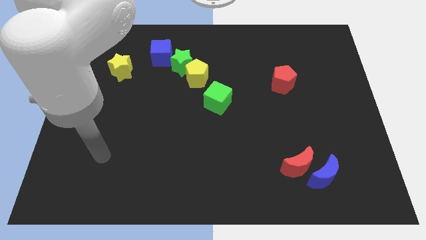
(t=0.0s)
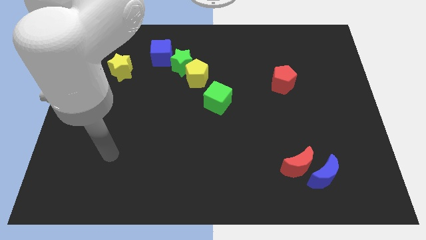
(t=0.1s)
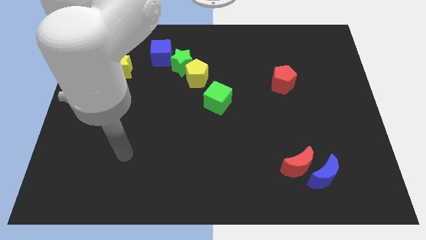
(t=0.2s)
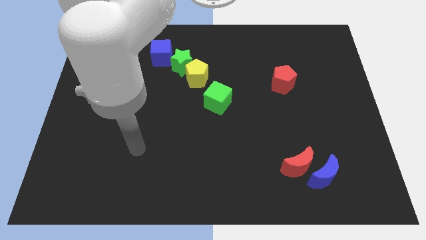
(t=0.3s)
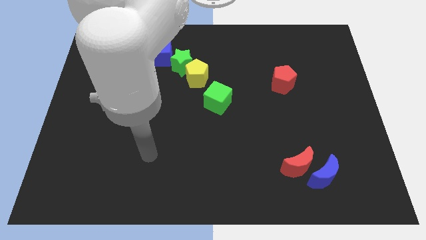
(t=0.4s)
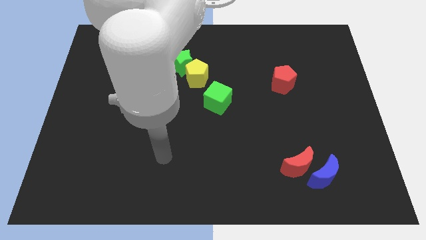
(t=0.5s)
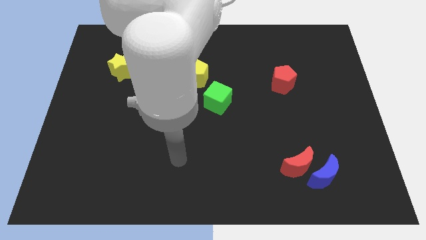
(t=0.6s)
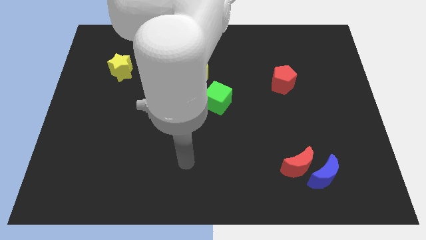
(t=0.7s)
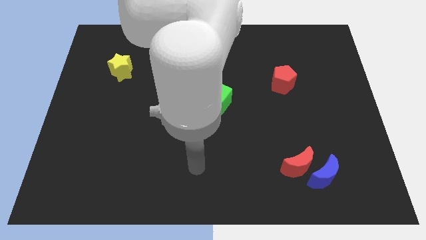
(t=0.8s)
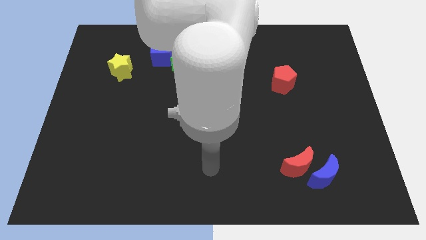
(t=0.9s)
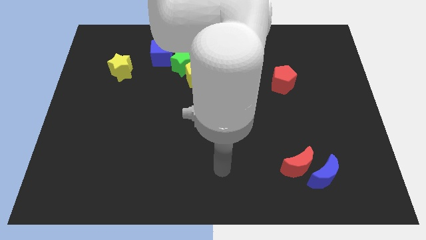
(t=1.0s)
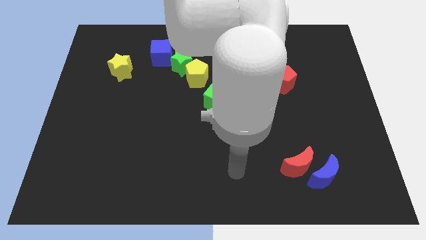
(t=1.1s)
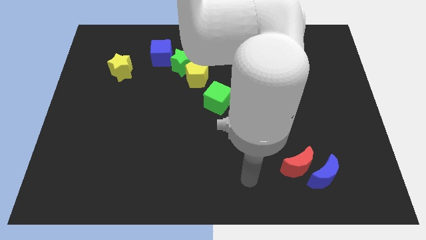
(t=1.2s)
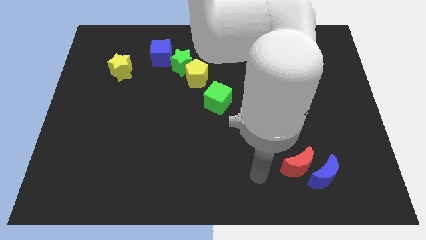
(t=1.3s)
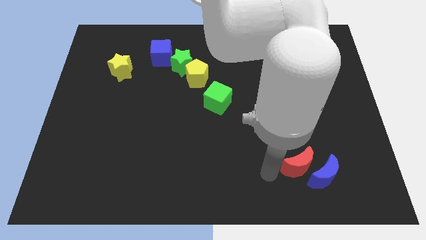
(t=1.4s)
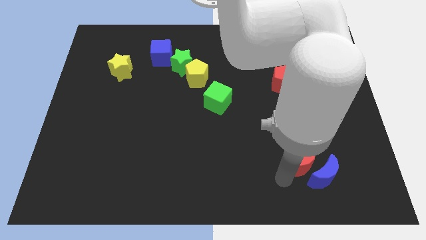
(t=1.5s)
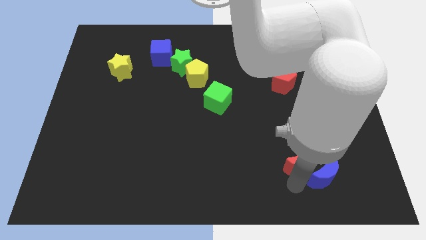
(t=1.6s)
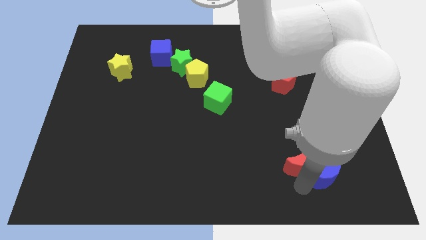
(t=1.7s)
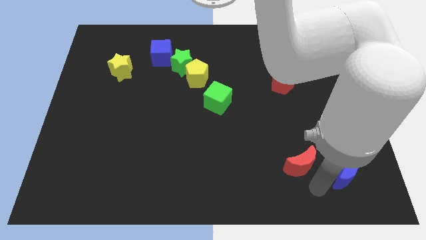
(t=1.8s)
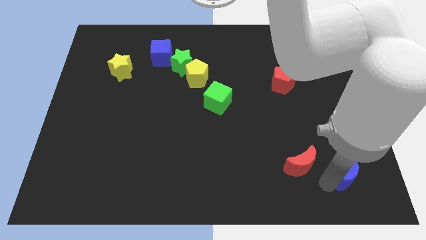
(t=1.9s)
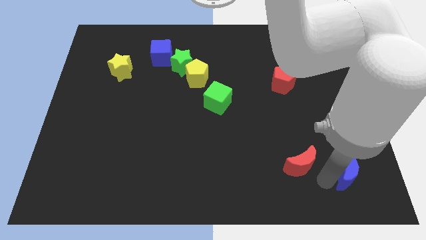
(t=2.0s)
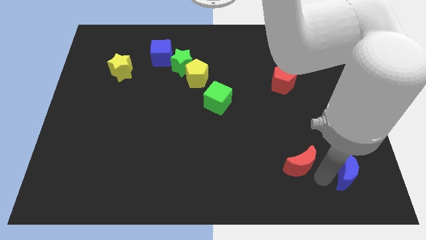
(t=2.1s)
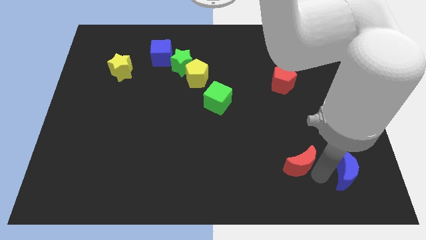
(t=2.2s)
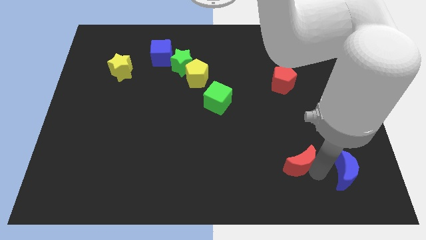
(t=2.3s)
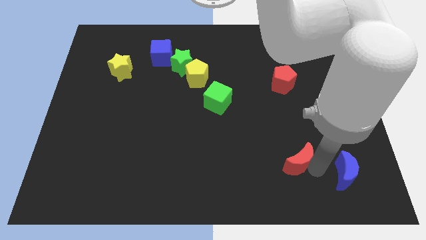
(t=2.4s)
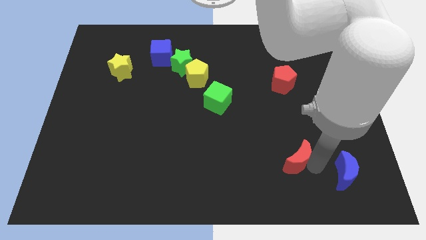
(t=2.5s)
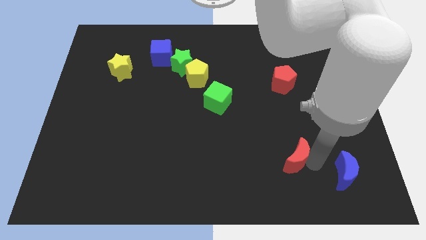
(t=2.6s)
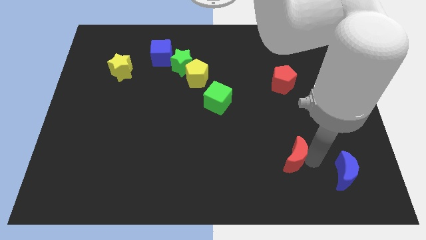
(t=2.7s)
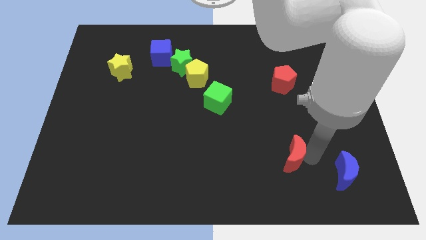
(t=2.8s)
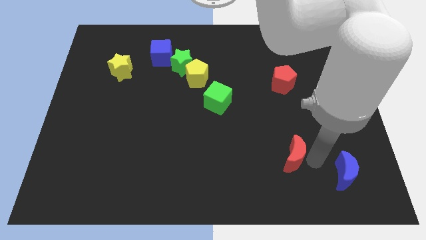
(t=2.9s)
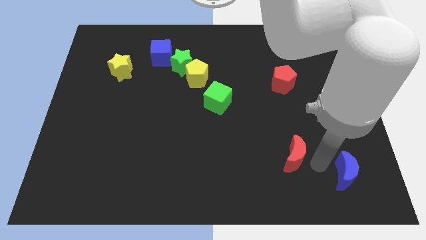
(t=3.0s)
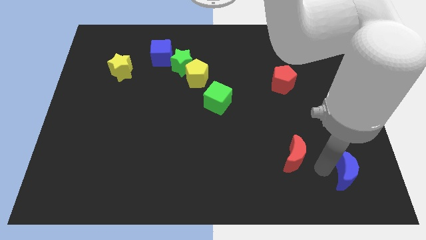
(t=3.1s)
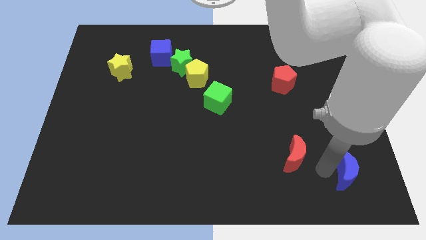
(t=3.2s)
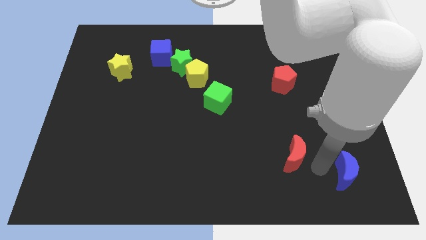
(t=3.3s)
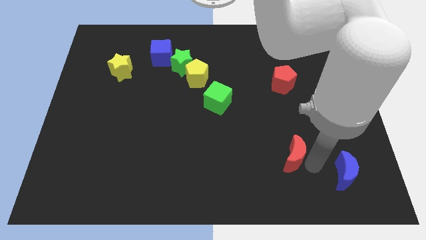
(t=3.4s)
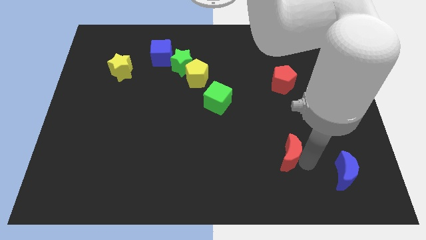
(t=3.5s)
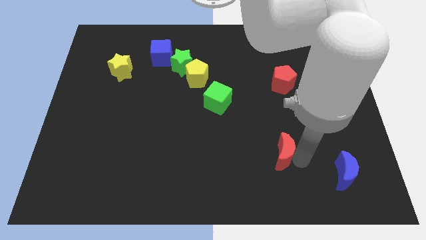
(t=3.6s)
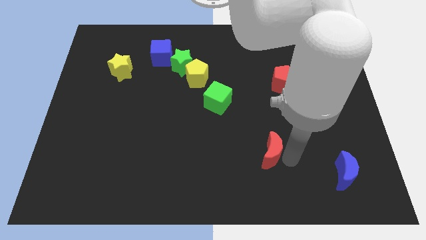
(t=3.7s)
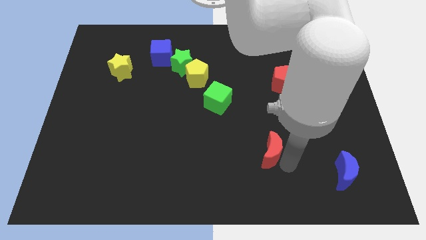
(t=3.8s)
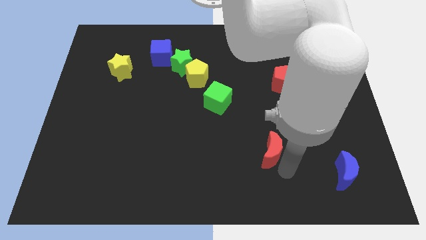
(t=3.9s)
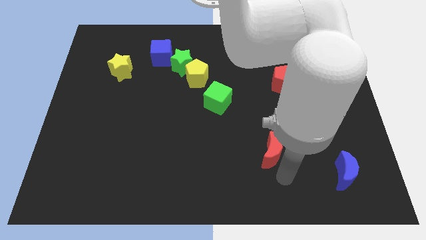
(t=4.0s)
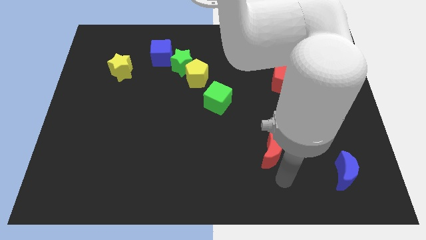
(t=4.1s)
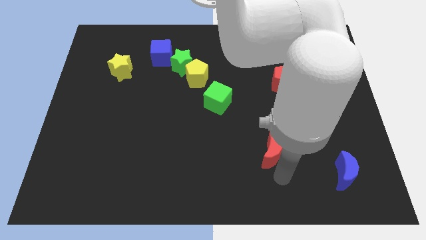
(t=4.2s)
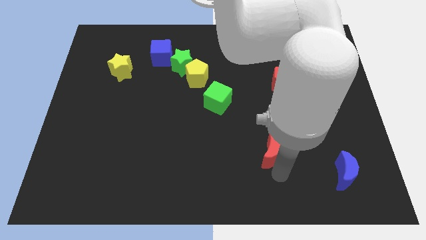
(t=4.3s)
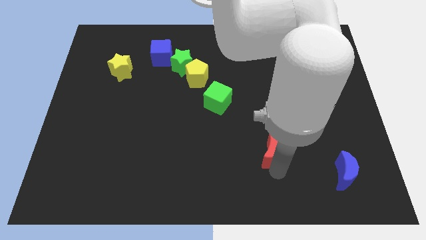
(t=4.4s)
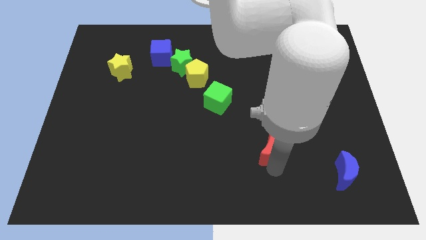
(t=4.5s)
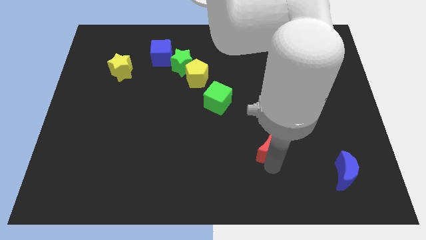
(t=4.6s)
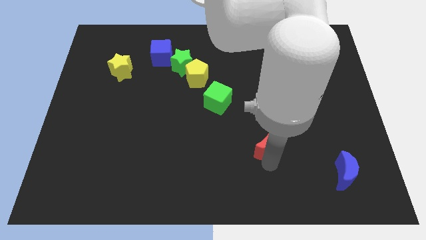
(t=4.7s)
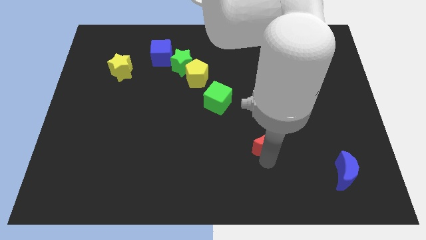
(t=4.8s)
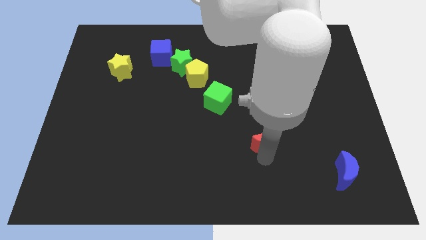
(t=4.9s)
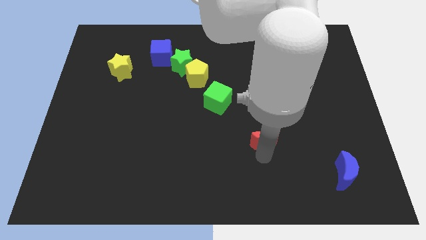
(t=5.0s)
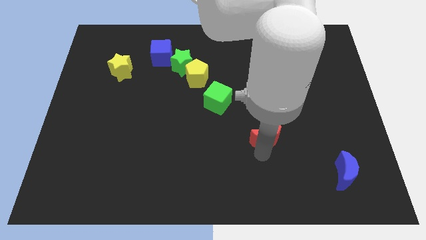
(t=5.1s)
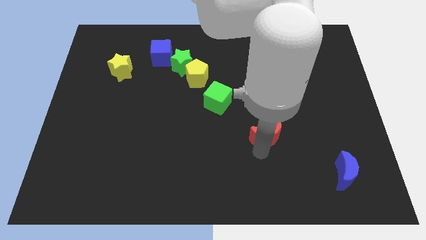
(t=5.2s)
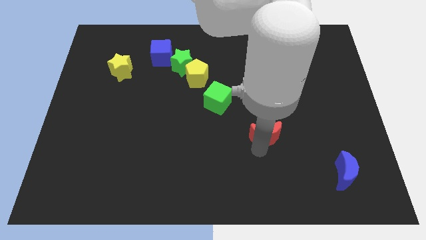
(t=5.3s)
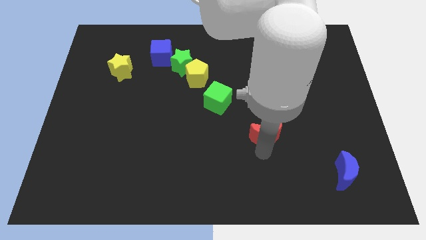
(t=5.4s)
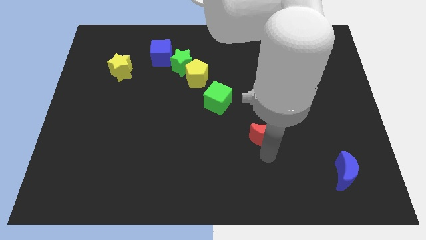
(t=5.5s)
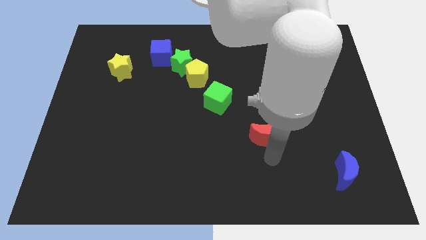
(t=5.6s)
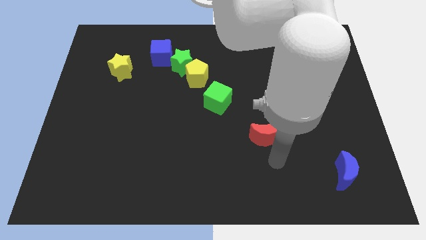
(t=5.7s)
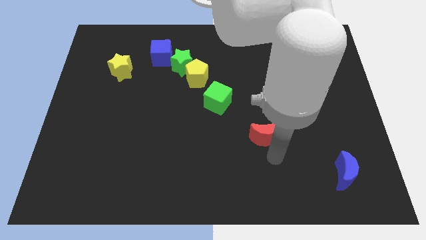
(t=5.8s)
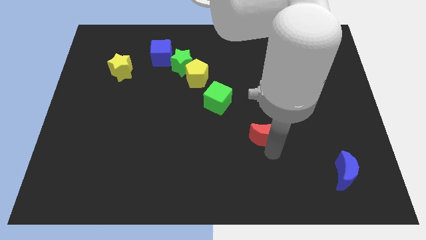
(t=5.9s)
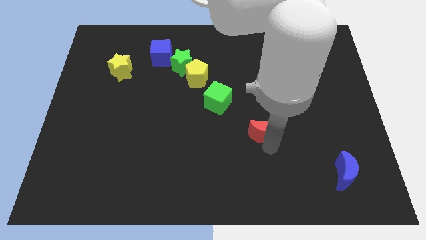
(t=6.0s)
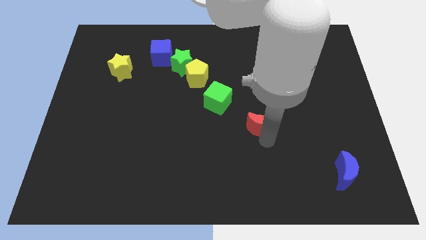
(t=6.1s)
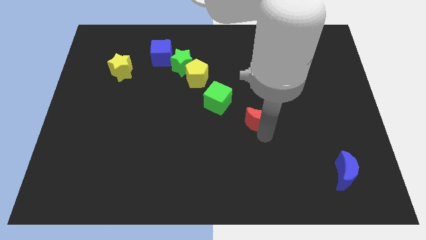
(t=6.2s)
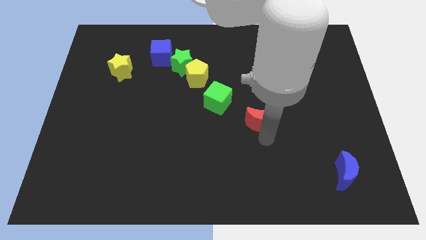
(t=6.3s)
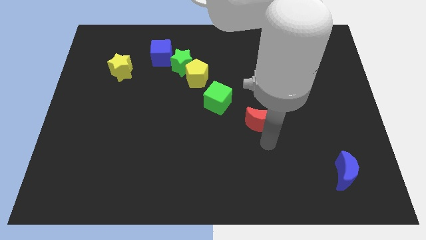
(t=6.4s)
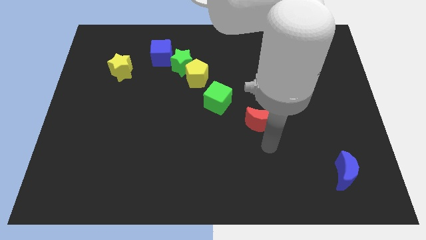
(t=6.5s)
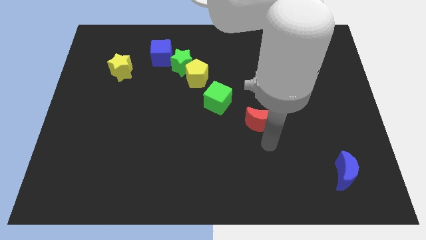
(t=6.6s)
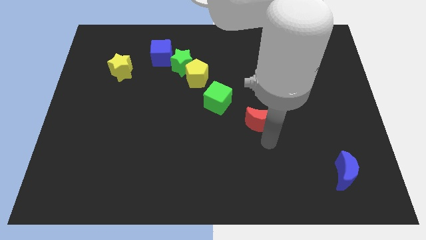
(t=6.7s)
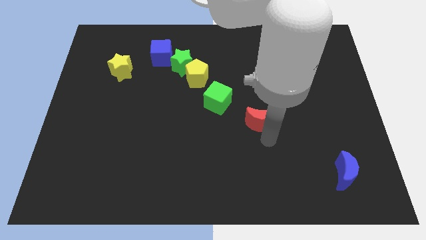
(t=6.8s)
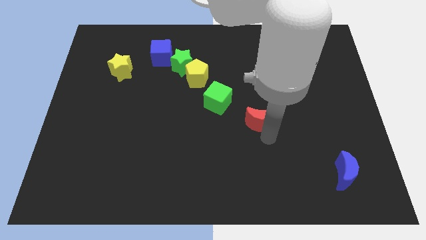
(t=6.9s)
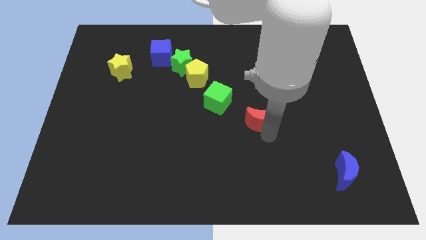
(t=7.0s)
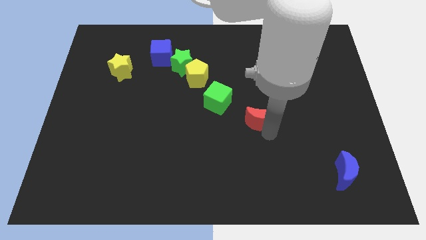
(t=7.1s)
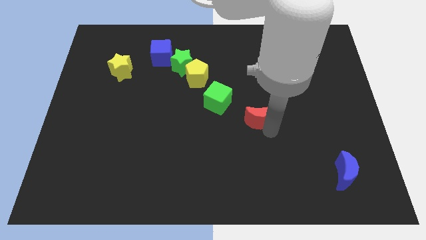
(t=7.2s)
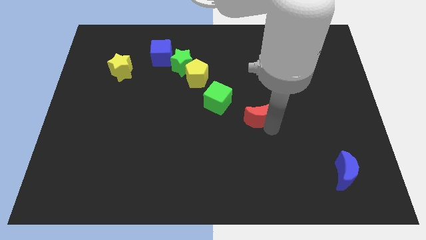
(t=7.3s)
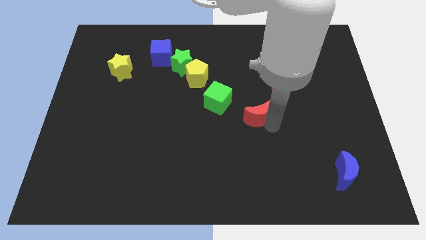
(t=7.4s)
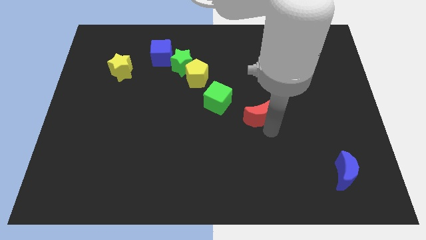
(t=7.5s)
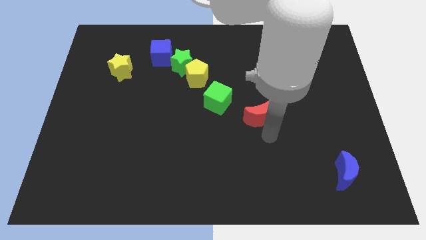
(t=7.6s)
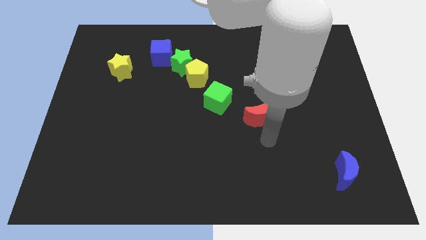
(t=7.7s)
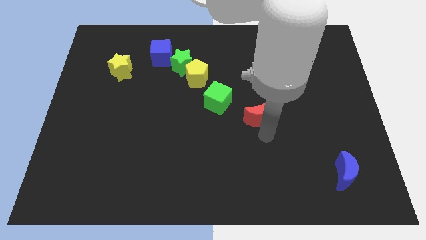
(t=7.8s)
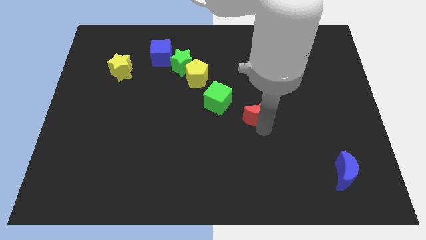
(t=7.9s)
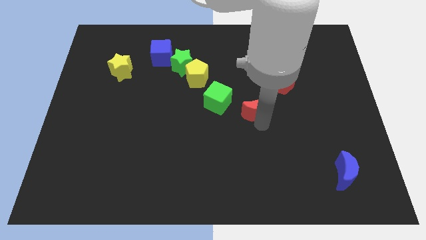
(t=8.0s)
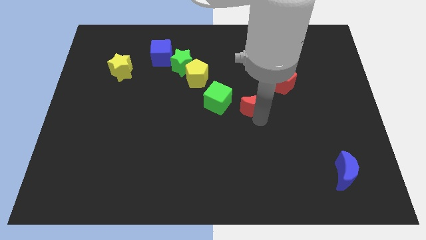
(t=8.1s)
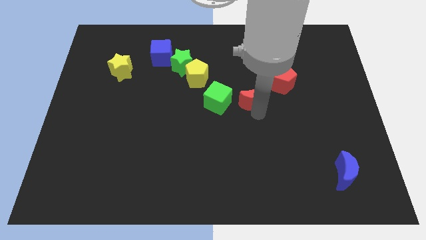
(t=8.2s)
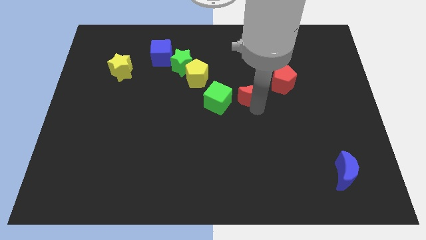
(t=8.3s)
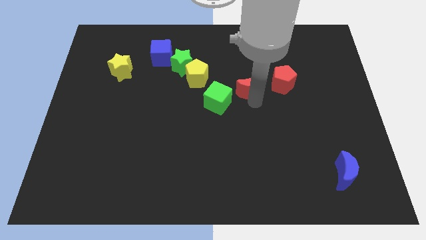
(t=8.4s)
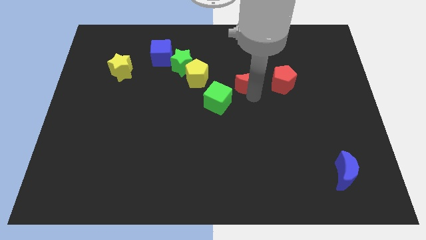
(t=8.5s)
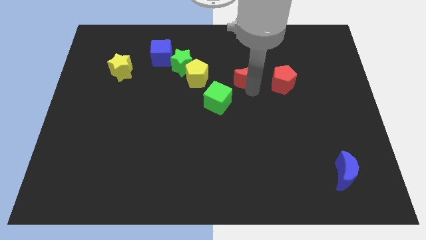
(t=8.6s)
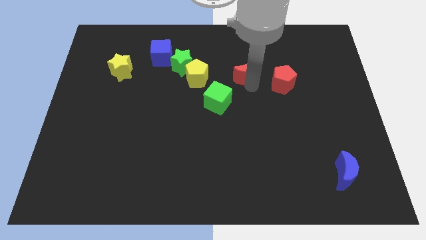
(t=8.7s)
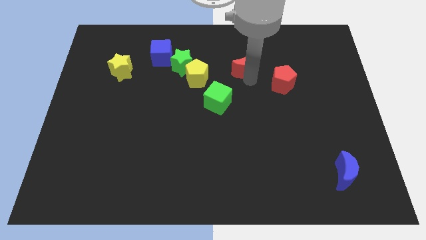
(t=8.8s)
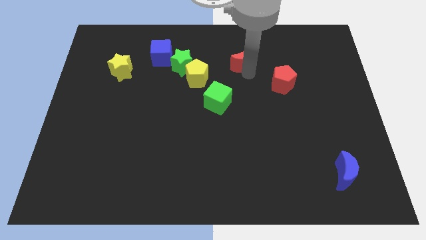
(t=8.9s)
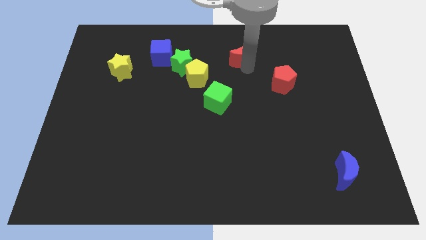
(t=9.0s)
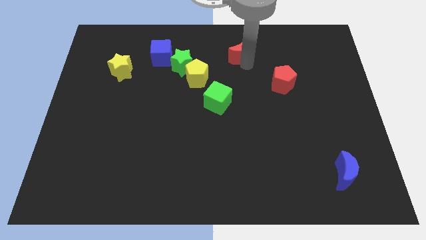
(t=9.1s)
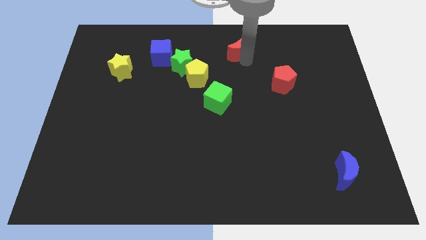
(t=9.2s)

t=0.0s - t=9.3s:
move the red moon to the top side
